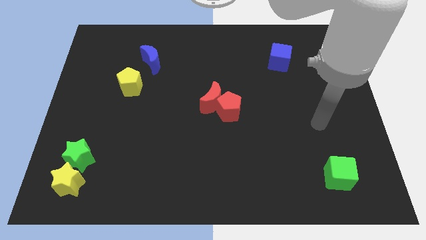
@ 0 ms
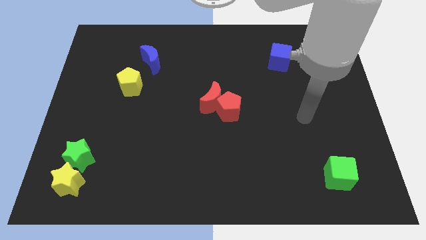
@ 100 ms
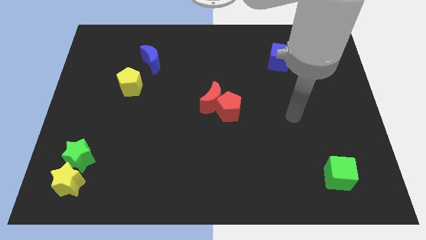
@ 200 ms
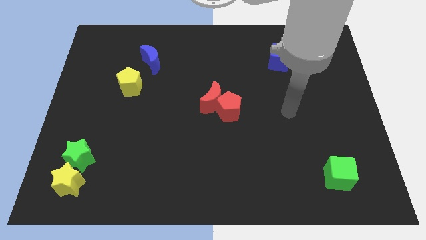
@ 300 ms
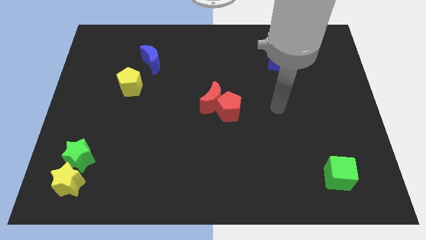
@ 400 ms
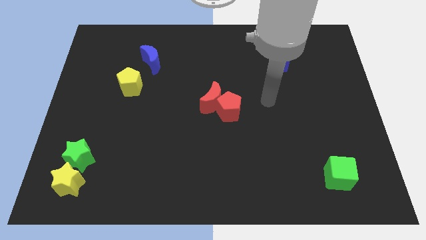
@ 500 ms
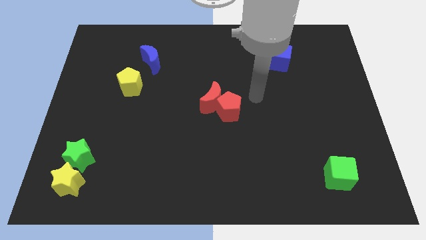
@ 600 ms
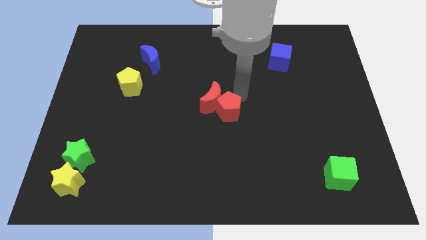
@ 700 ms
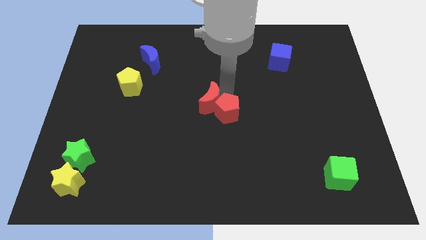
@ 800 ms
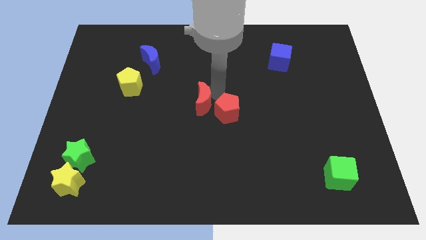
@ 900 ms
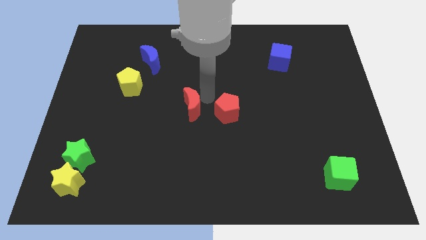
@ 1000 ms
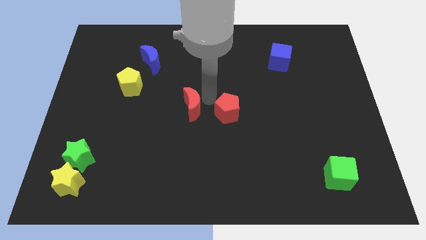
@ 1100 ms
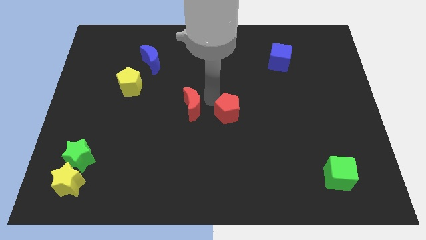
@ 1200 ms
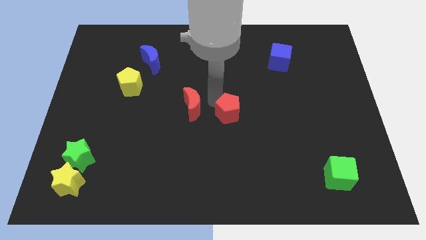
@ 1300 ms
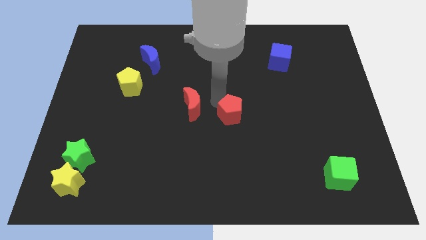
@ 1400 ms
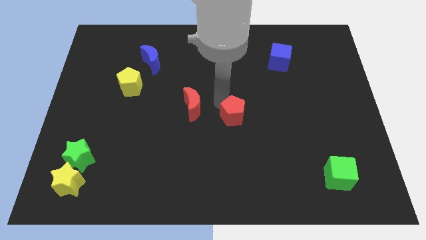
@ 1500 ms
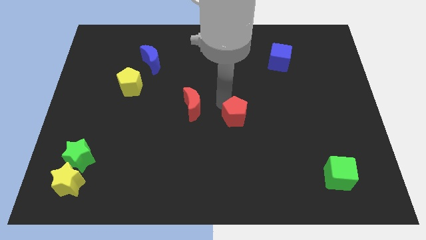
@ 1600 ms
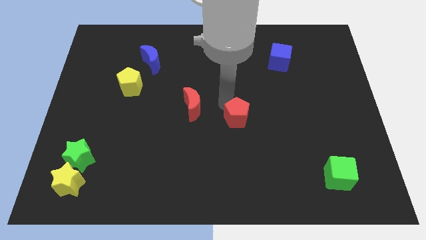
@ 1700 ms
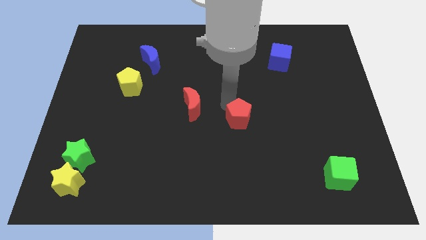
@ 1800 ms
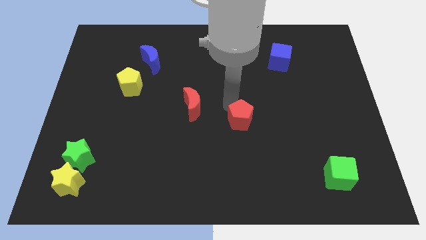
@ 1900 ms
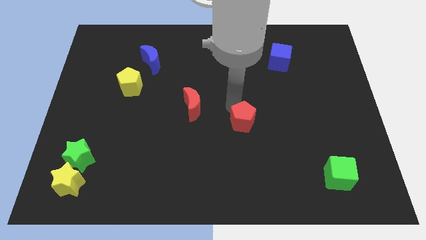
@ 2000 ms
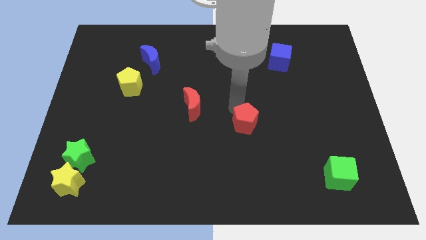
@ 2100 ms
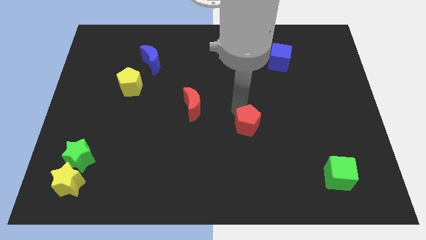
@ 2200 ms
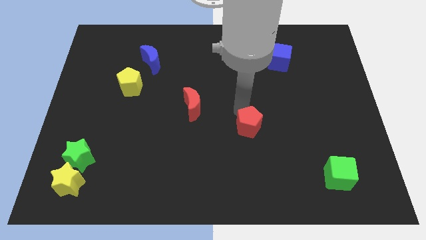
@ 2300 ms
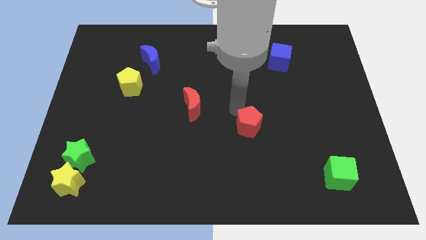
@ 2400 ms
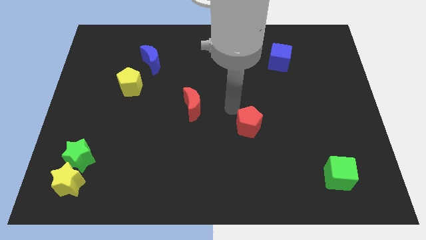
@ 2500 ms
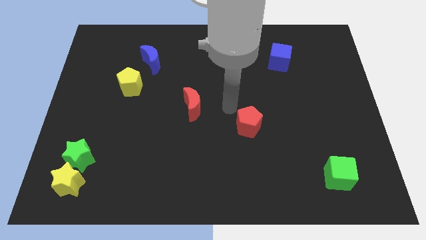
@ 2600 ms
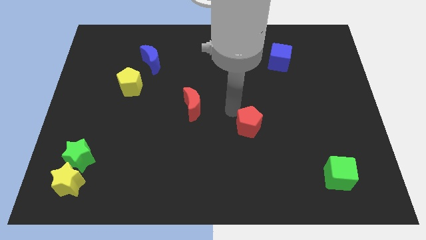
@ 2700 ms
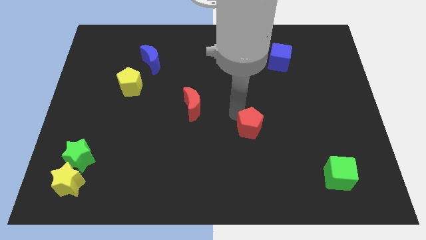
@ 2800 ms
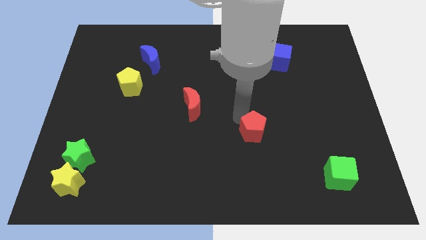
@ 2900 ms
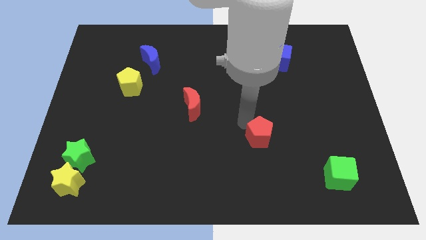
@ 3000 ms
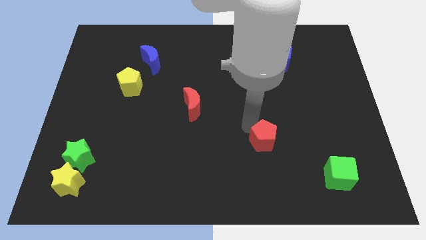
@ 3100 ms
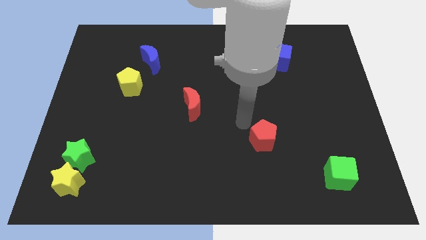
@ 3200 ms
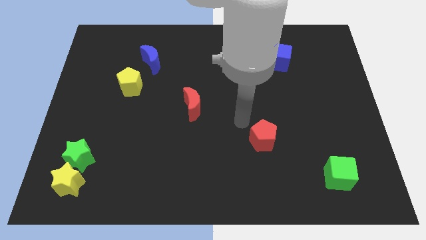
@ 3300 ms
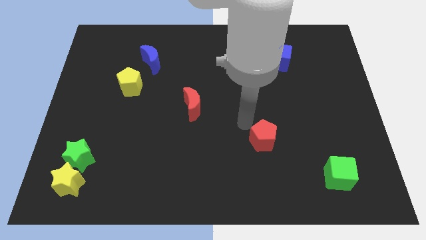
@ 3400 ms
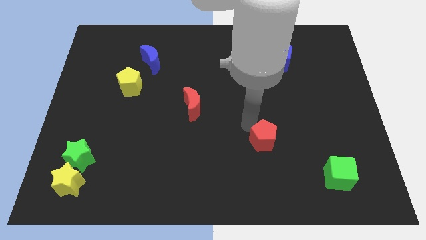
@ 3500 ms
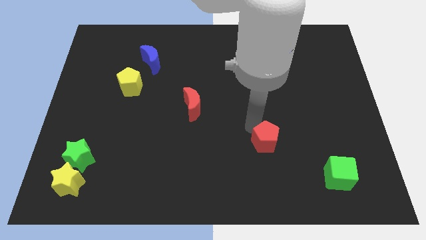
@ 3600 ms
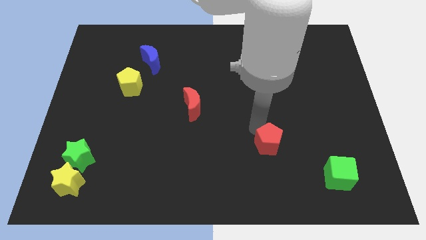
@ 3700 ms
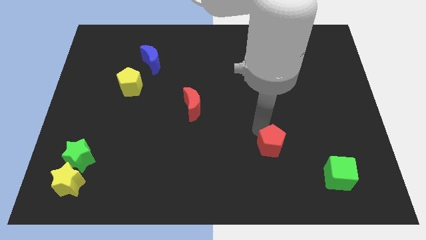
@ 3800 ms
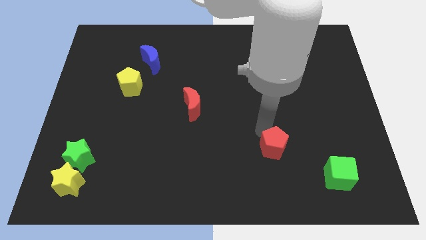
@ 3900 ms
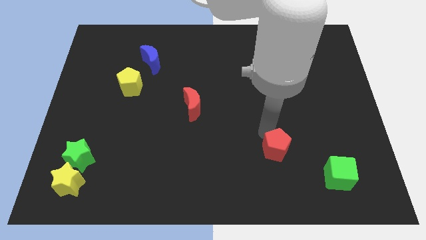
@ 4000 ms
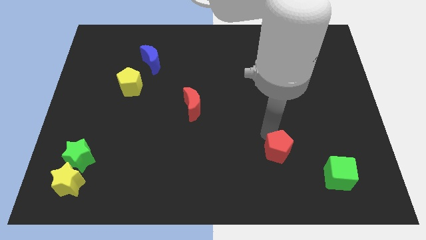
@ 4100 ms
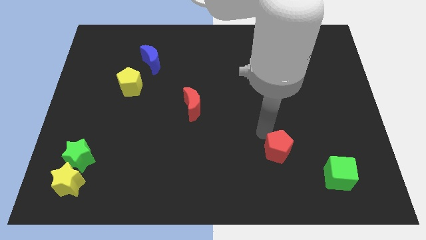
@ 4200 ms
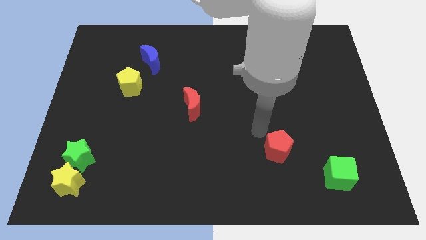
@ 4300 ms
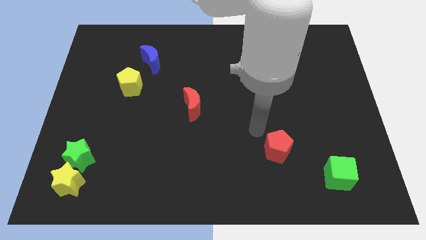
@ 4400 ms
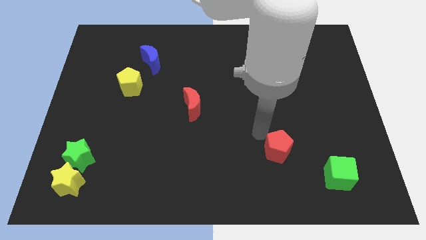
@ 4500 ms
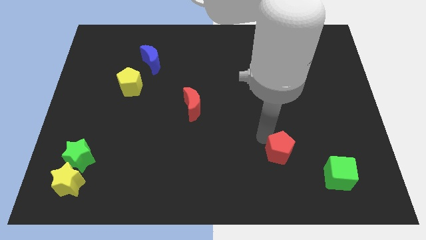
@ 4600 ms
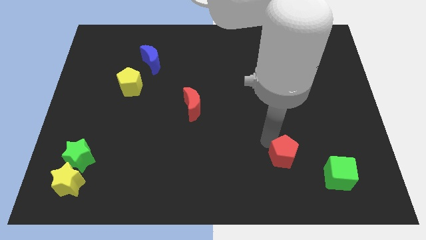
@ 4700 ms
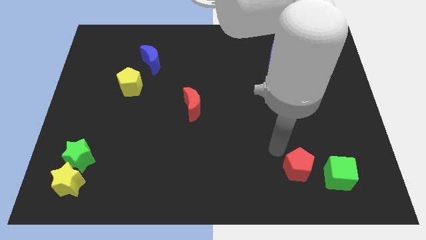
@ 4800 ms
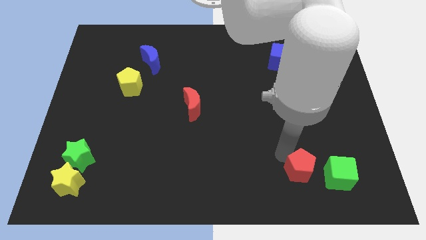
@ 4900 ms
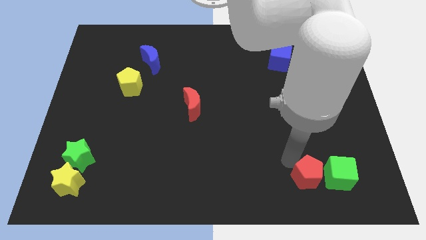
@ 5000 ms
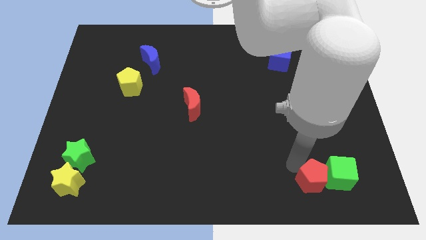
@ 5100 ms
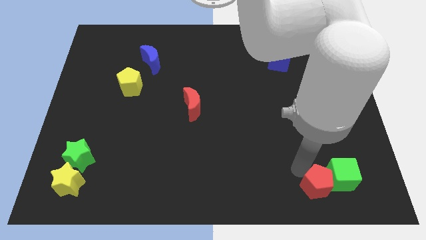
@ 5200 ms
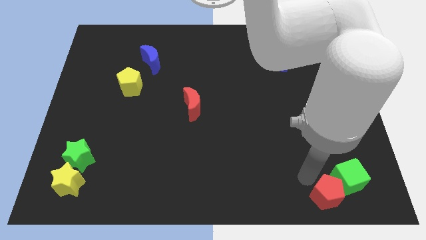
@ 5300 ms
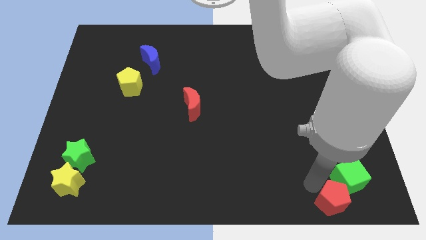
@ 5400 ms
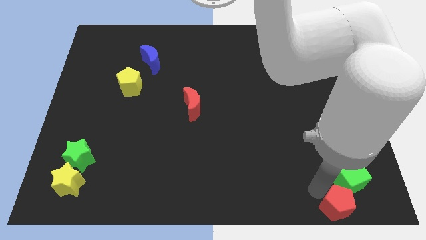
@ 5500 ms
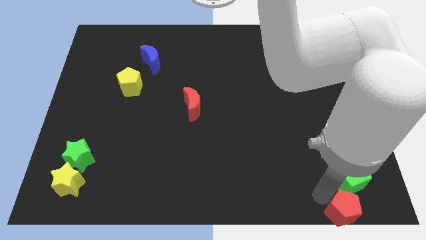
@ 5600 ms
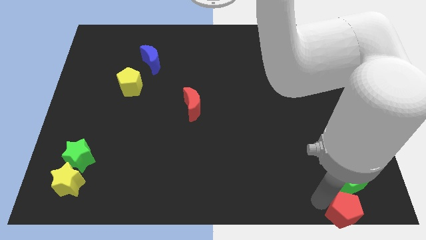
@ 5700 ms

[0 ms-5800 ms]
push the red pentagon to the bottom right of the board

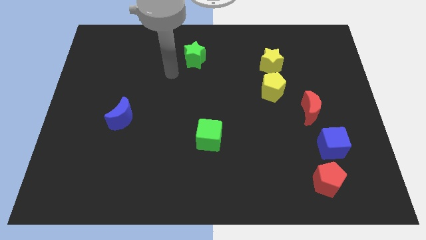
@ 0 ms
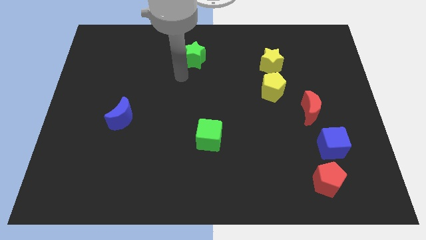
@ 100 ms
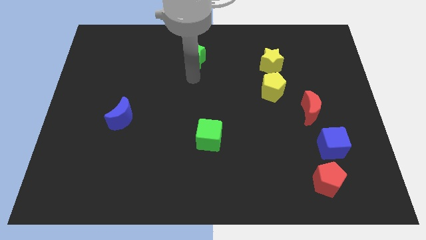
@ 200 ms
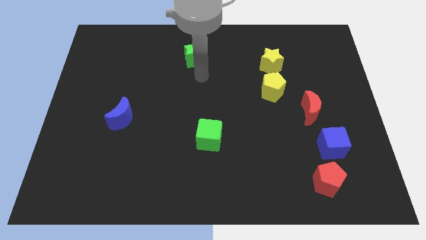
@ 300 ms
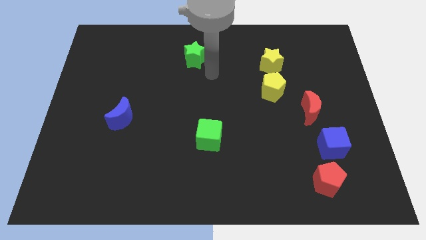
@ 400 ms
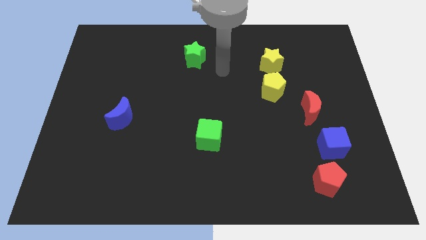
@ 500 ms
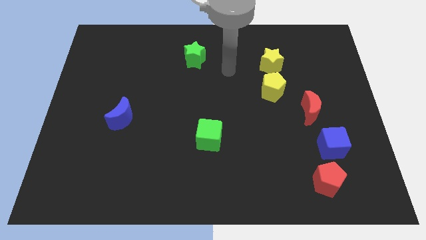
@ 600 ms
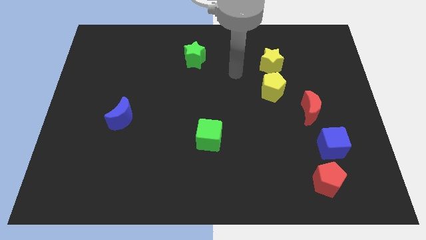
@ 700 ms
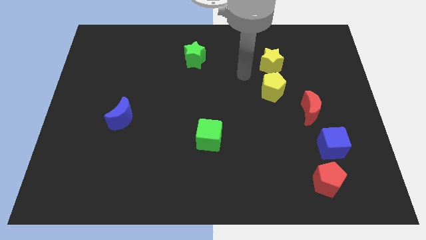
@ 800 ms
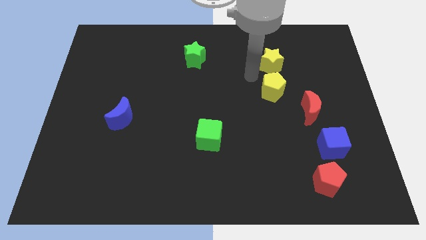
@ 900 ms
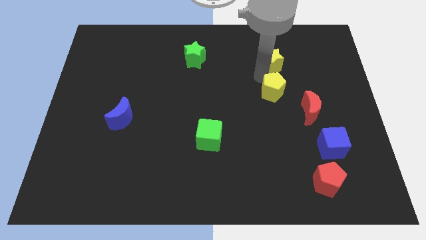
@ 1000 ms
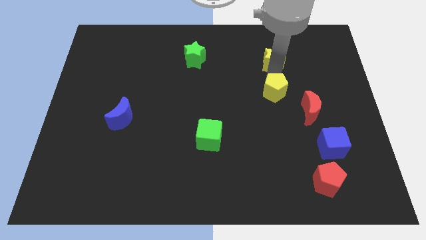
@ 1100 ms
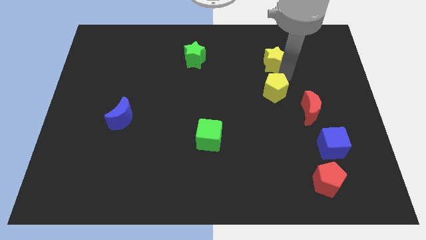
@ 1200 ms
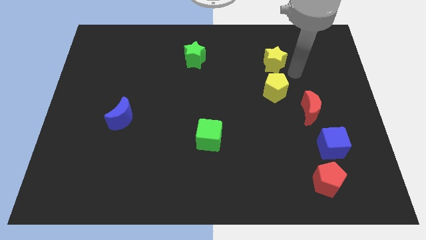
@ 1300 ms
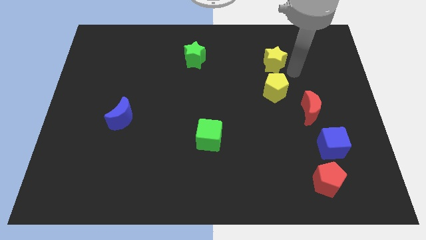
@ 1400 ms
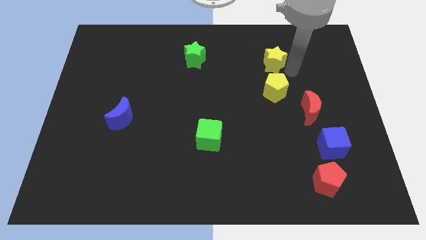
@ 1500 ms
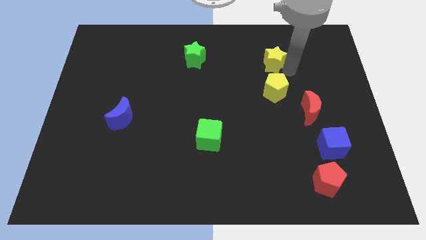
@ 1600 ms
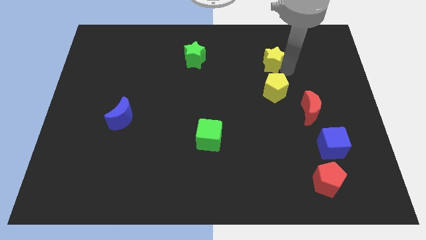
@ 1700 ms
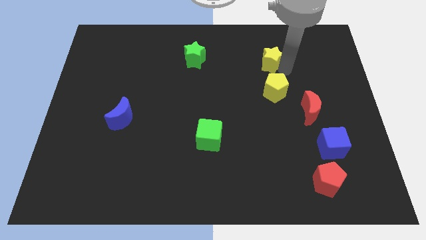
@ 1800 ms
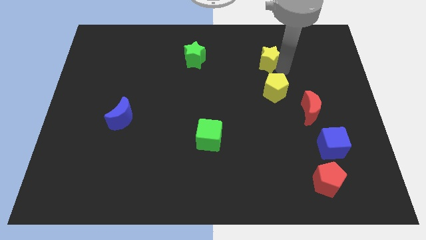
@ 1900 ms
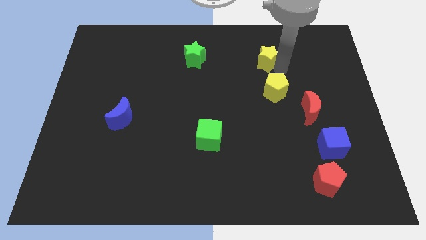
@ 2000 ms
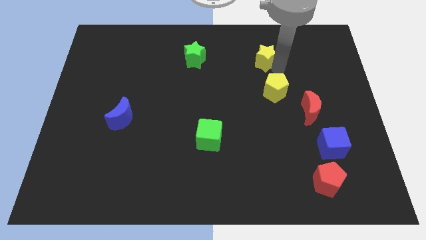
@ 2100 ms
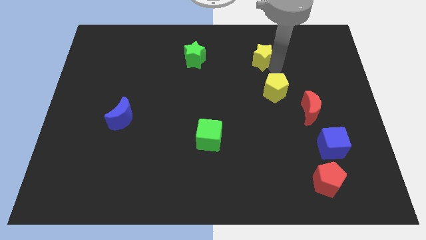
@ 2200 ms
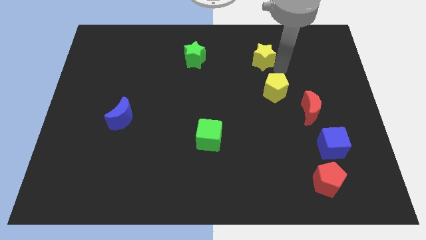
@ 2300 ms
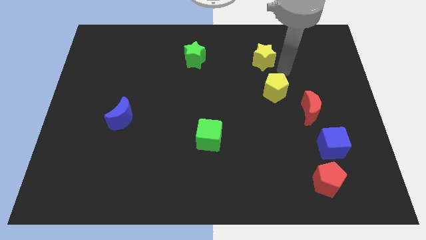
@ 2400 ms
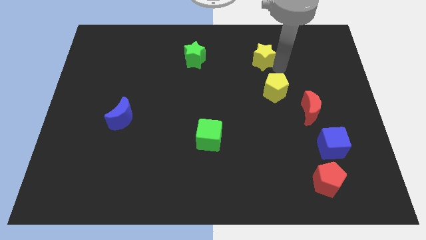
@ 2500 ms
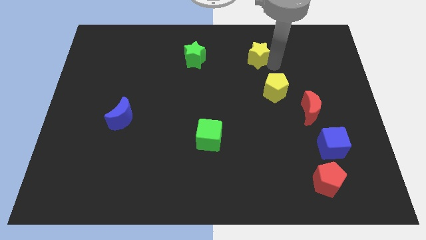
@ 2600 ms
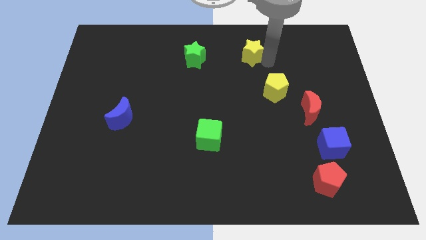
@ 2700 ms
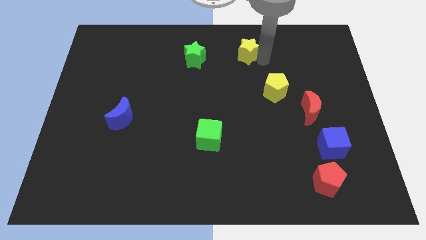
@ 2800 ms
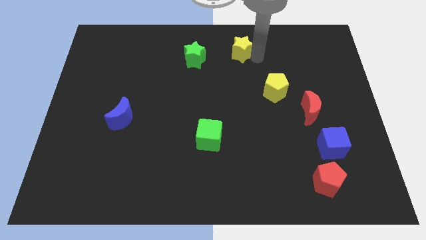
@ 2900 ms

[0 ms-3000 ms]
slide the yellow star to the towards your base
